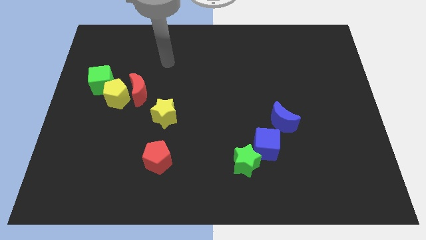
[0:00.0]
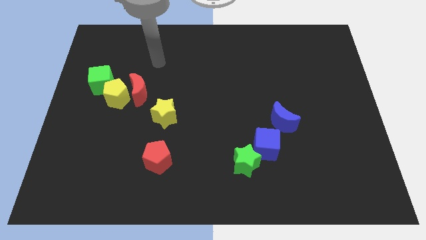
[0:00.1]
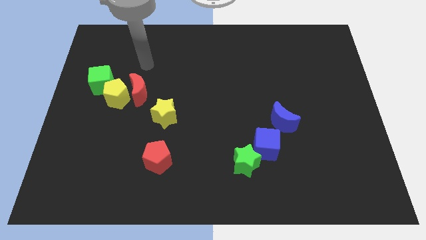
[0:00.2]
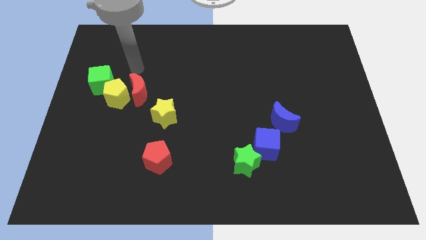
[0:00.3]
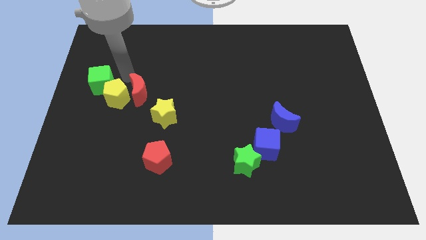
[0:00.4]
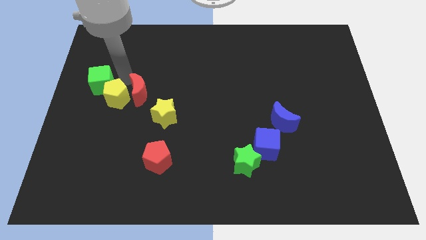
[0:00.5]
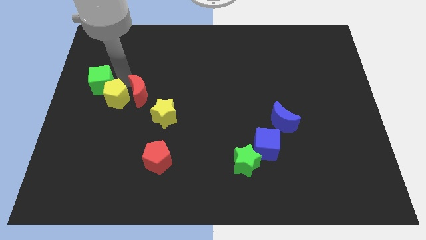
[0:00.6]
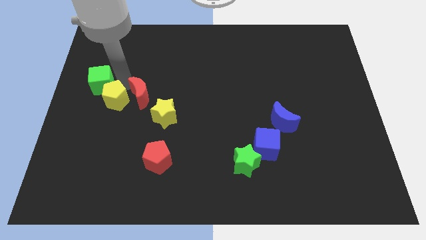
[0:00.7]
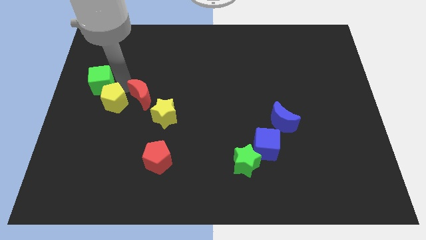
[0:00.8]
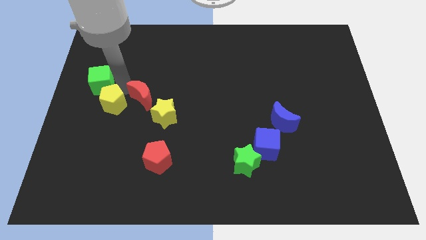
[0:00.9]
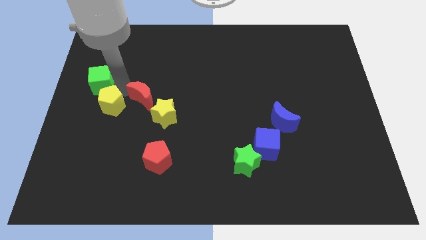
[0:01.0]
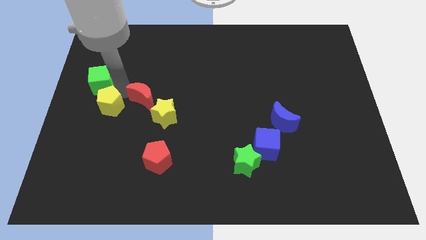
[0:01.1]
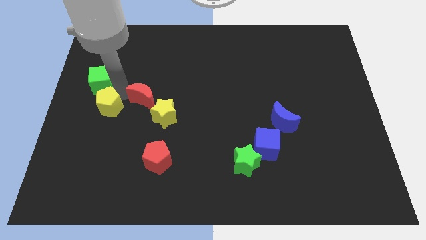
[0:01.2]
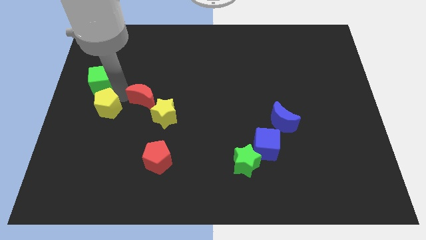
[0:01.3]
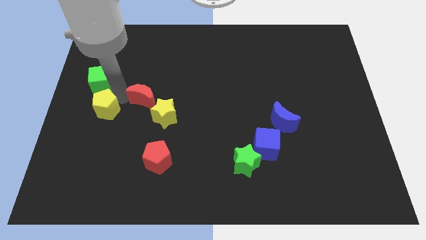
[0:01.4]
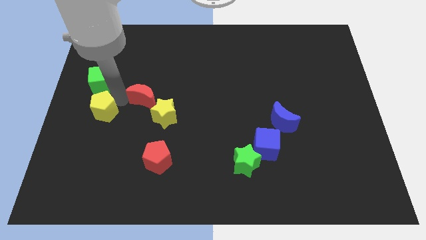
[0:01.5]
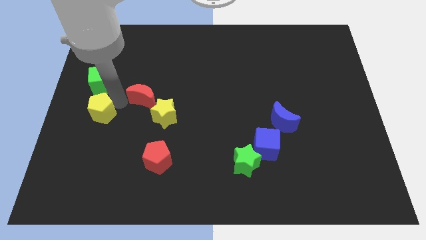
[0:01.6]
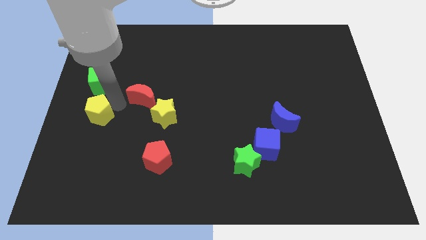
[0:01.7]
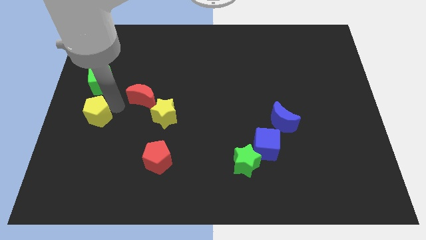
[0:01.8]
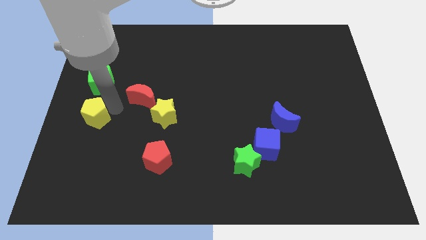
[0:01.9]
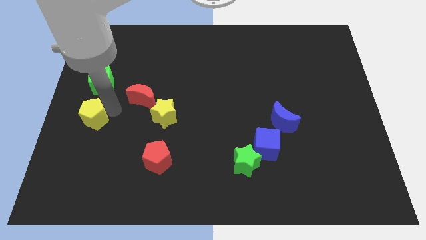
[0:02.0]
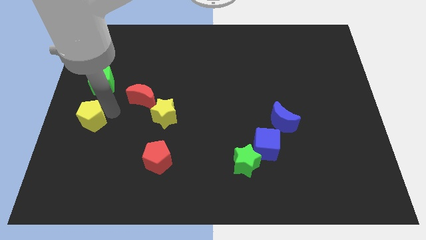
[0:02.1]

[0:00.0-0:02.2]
pull the yellow pentagon apart from the red moon and green cube

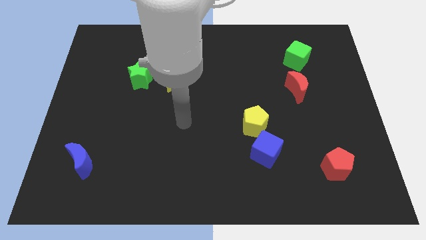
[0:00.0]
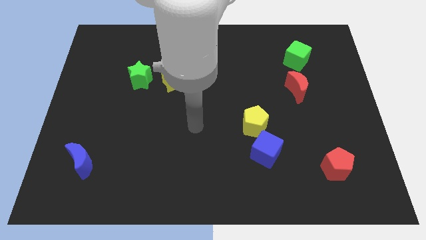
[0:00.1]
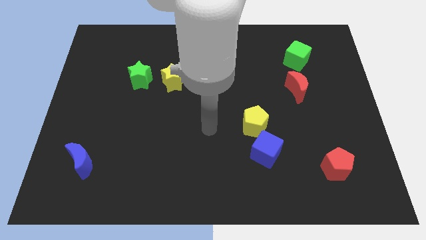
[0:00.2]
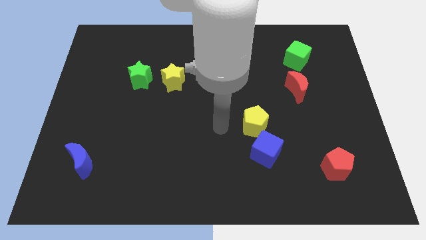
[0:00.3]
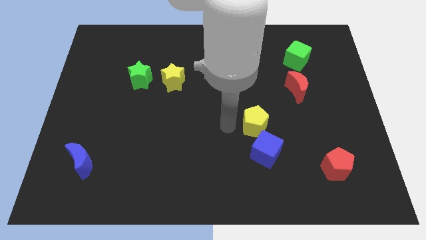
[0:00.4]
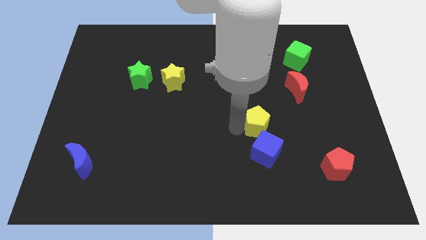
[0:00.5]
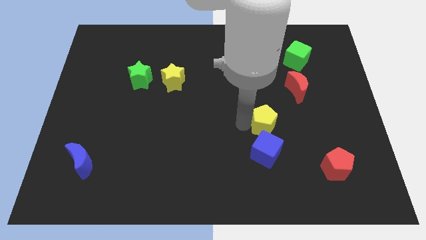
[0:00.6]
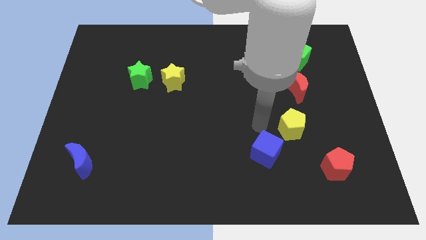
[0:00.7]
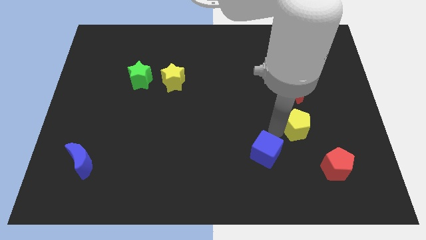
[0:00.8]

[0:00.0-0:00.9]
move the blue cube away from the yellow pentagon

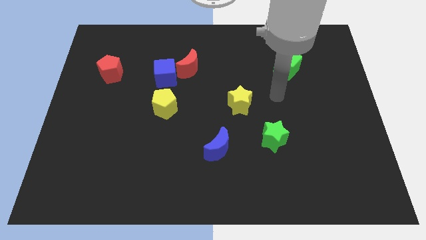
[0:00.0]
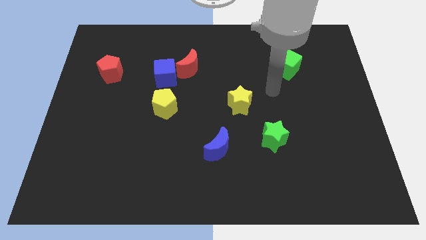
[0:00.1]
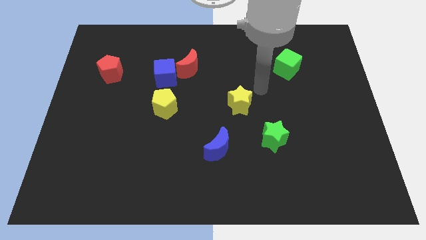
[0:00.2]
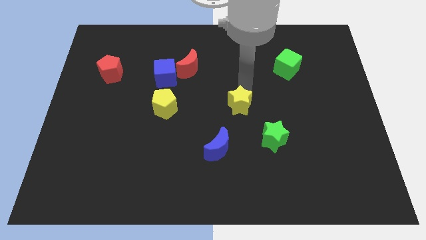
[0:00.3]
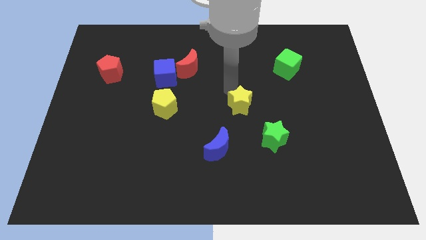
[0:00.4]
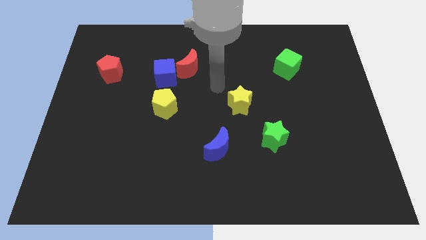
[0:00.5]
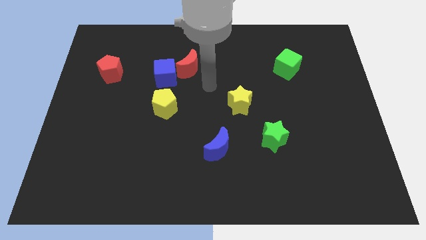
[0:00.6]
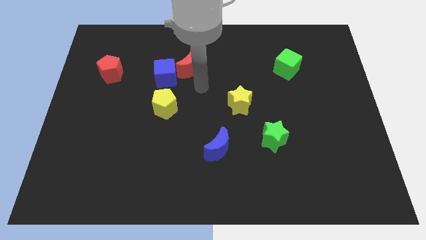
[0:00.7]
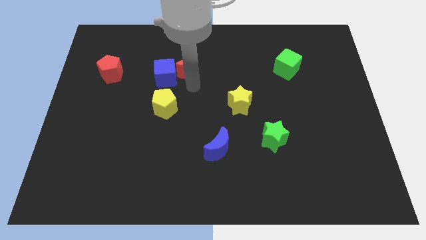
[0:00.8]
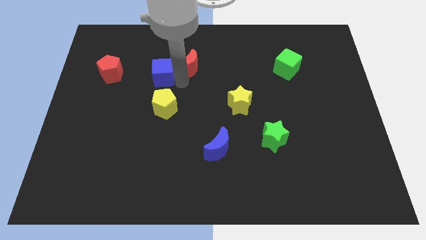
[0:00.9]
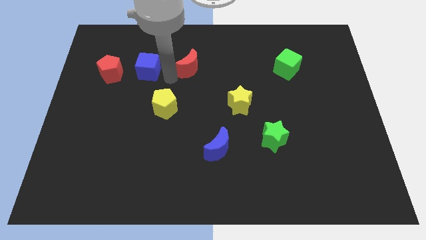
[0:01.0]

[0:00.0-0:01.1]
move the red moon away from the blue cube

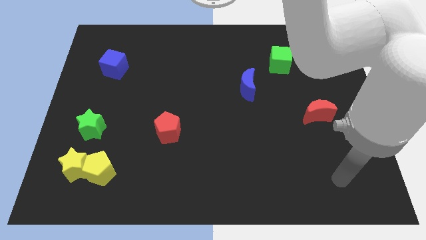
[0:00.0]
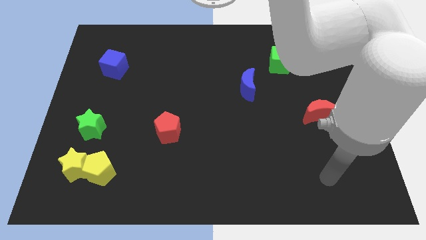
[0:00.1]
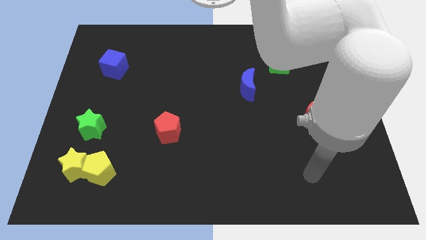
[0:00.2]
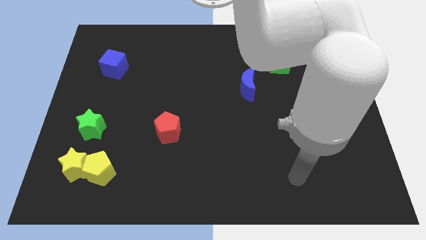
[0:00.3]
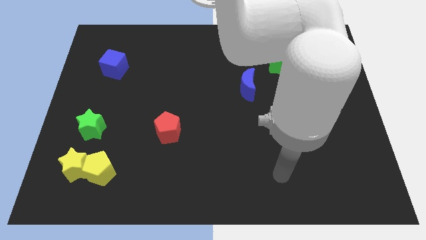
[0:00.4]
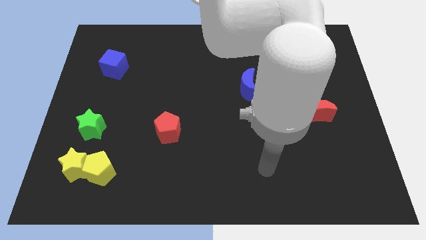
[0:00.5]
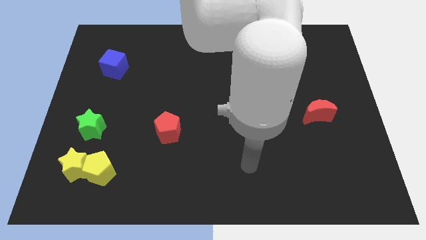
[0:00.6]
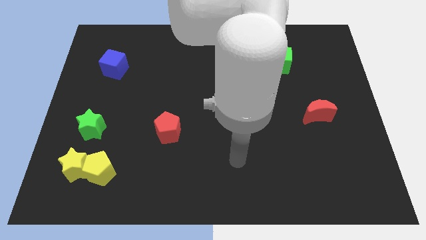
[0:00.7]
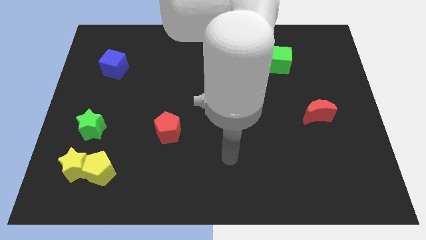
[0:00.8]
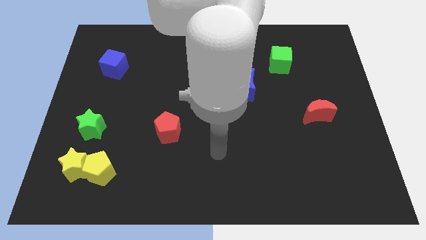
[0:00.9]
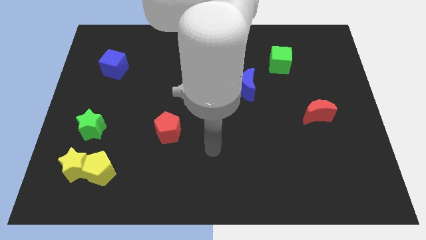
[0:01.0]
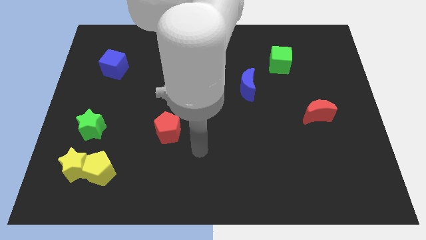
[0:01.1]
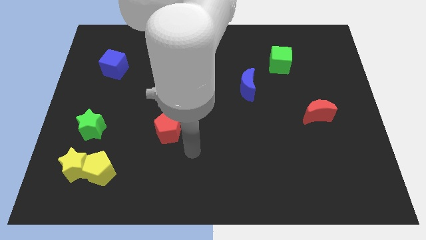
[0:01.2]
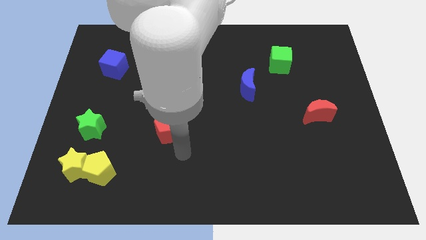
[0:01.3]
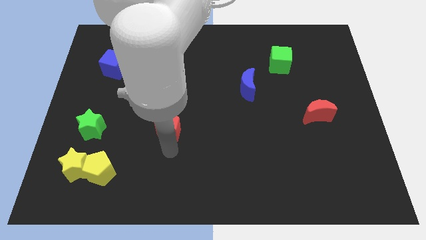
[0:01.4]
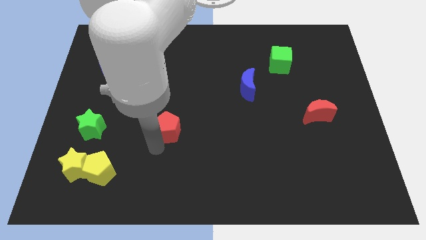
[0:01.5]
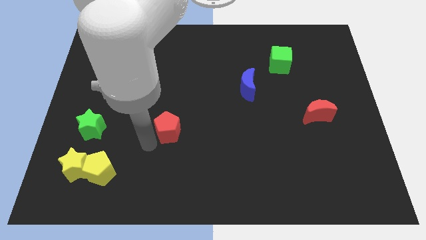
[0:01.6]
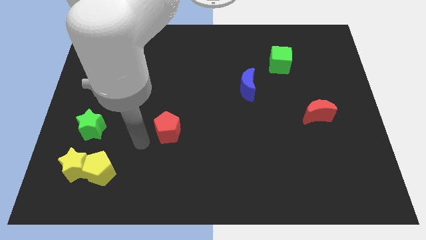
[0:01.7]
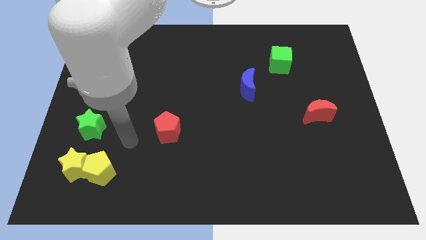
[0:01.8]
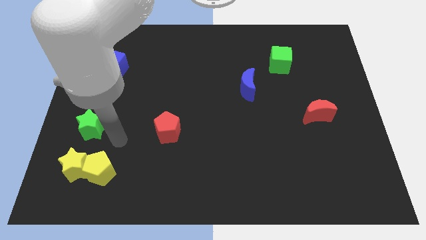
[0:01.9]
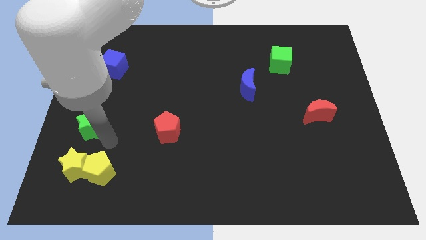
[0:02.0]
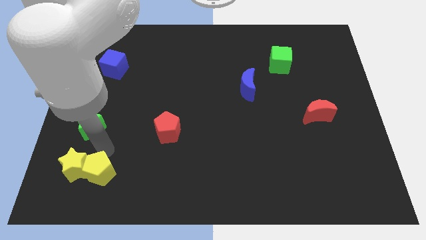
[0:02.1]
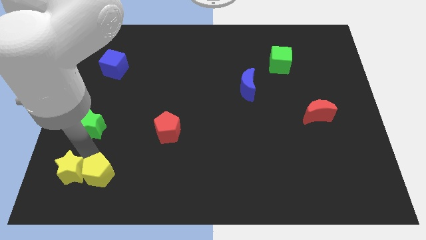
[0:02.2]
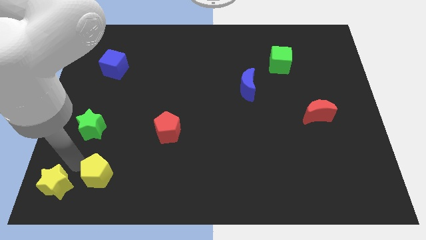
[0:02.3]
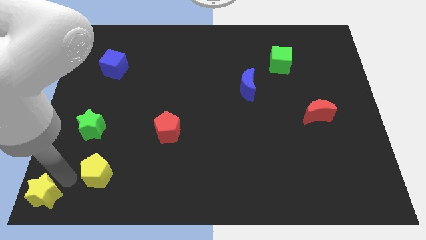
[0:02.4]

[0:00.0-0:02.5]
move the yellow pentagon away from the yellow star

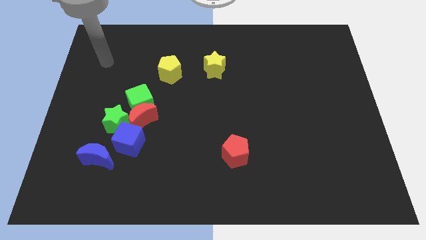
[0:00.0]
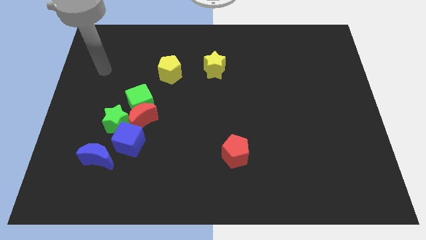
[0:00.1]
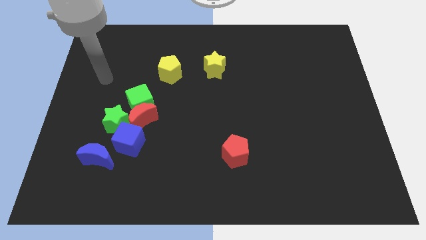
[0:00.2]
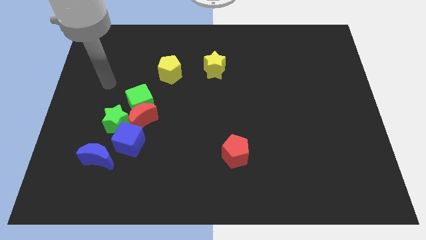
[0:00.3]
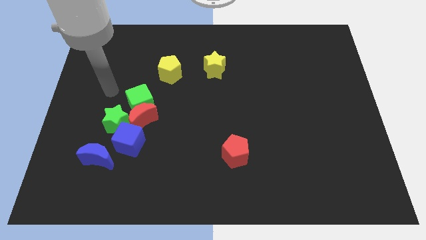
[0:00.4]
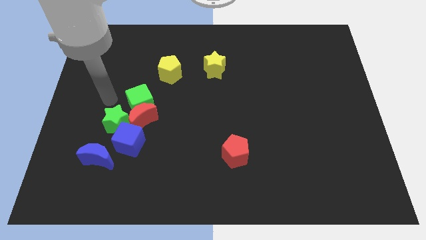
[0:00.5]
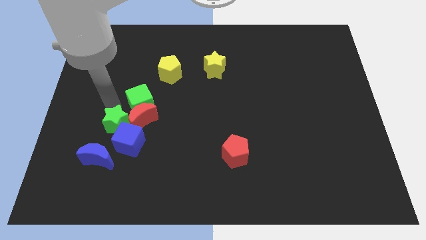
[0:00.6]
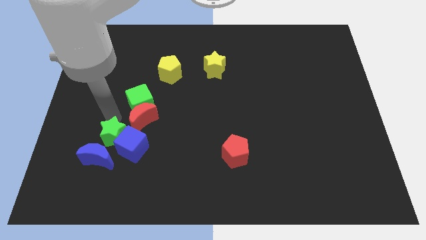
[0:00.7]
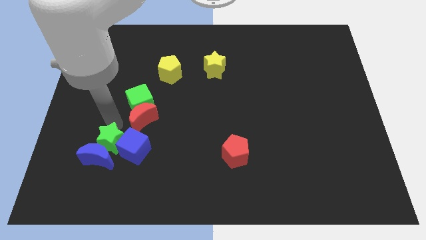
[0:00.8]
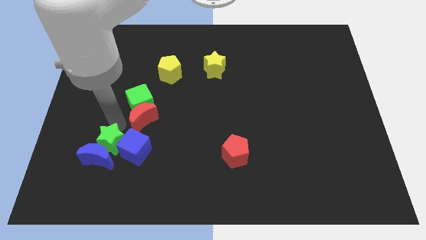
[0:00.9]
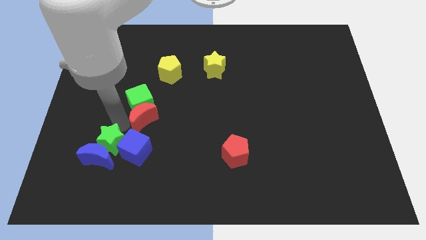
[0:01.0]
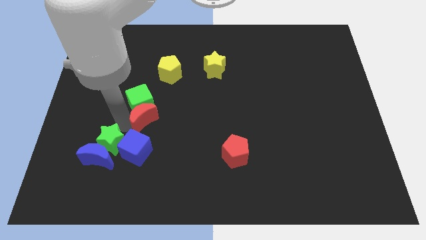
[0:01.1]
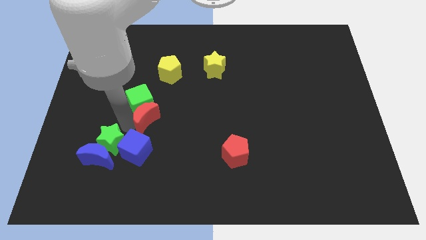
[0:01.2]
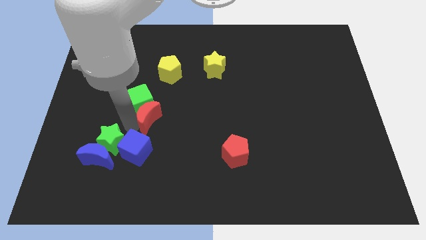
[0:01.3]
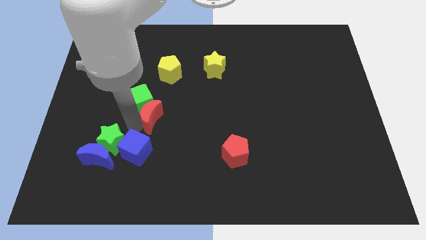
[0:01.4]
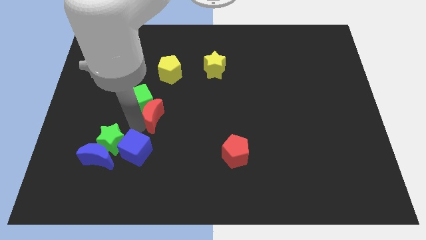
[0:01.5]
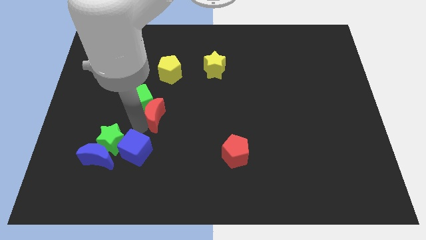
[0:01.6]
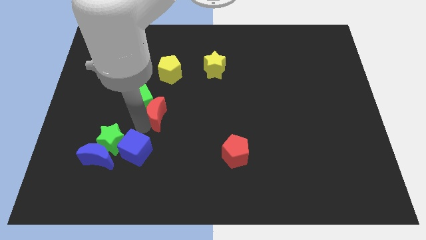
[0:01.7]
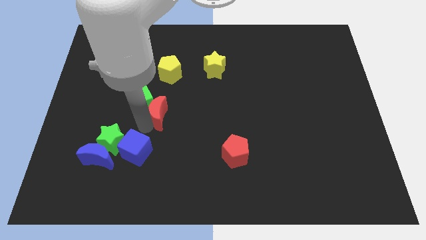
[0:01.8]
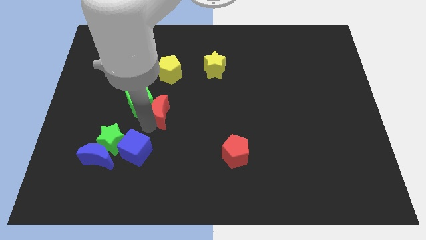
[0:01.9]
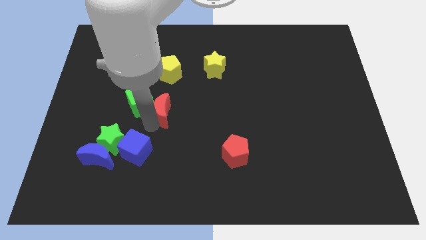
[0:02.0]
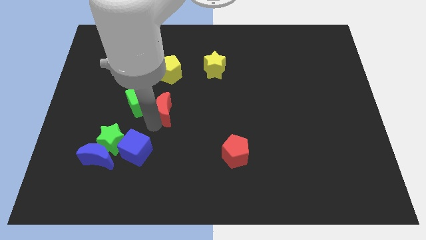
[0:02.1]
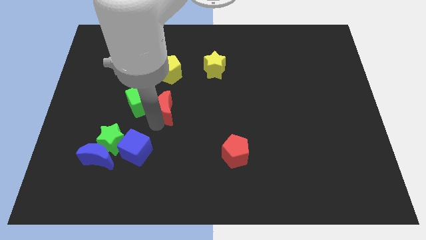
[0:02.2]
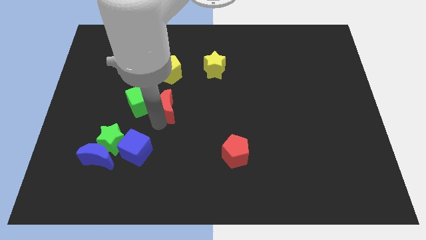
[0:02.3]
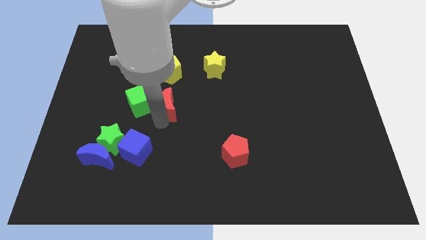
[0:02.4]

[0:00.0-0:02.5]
separate the red moon from the green cube, green star, and blue cube

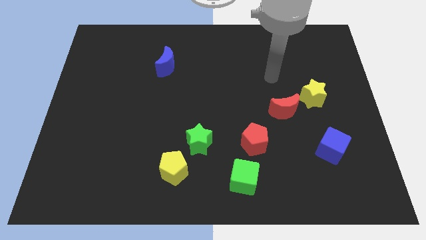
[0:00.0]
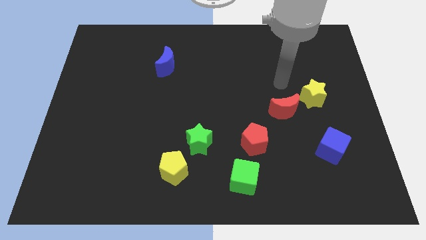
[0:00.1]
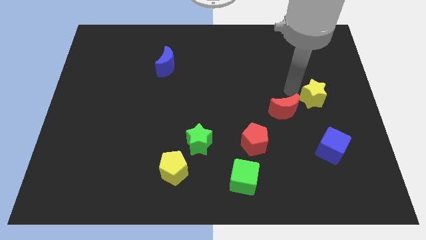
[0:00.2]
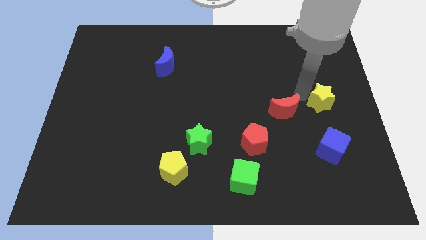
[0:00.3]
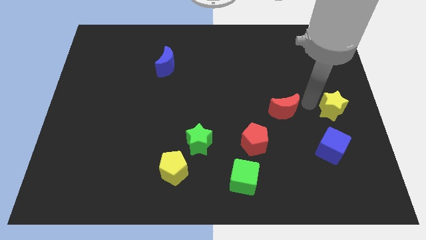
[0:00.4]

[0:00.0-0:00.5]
move the red moon away from the yellow star
